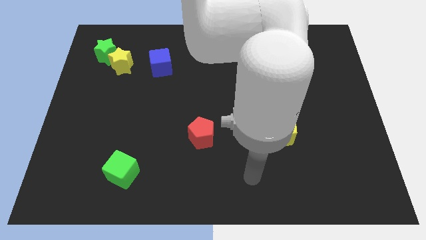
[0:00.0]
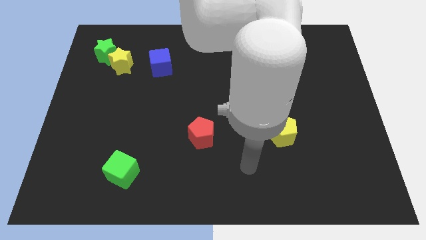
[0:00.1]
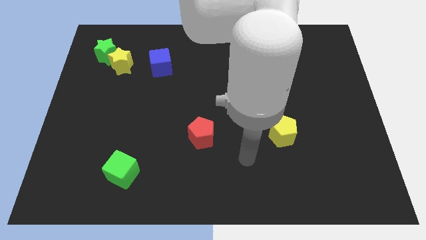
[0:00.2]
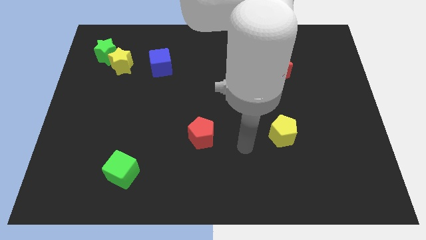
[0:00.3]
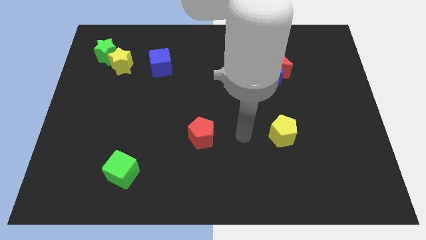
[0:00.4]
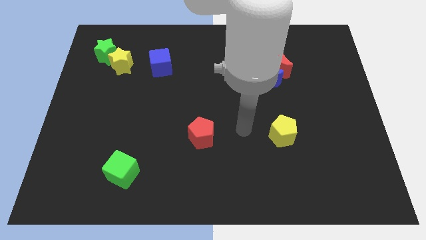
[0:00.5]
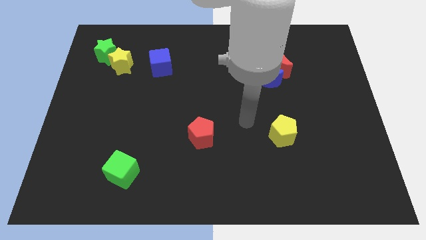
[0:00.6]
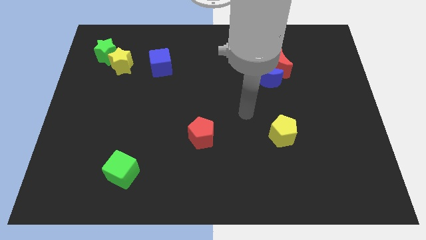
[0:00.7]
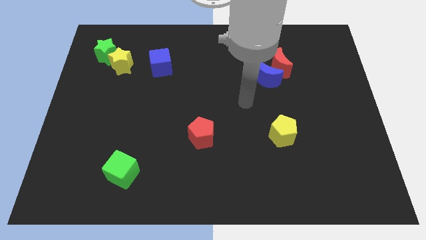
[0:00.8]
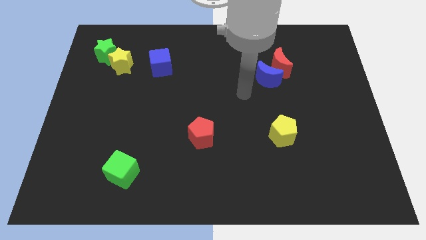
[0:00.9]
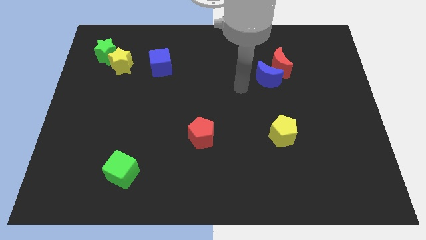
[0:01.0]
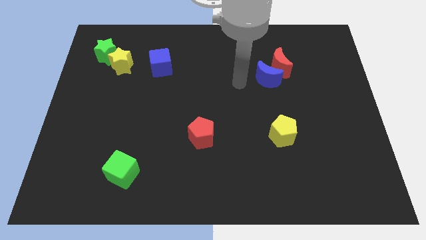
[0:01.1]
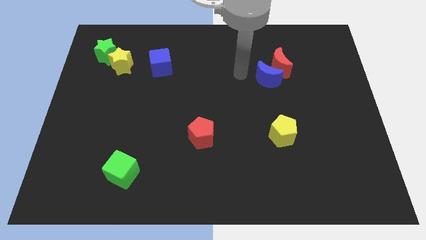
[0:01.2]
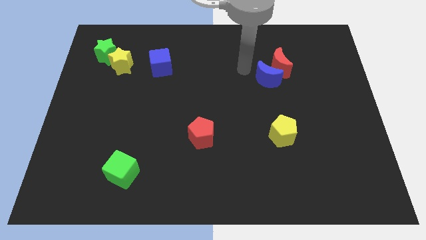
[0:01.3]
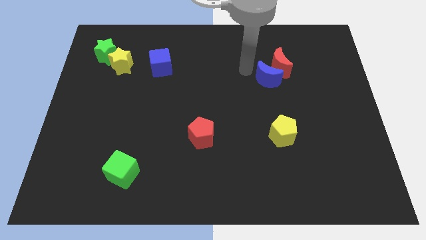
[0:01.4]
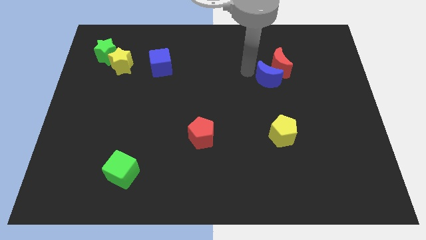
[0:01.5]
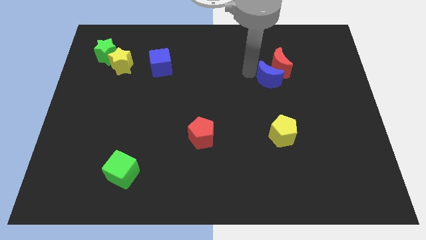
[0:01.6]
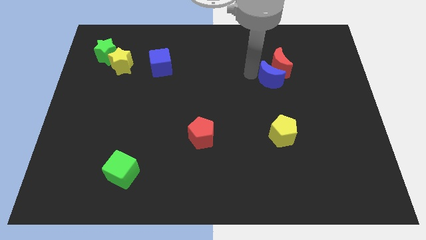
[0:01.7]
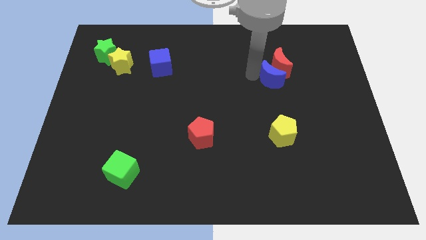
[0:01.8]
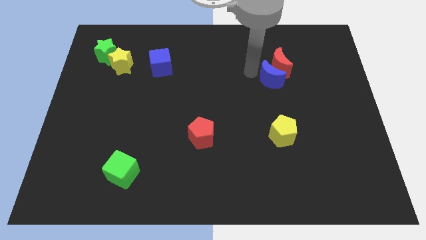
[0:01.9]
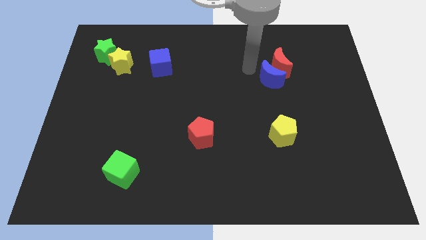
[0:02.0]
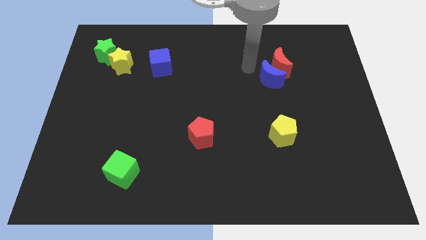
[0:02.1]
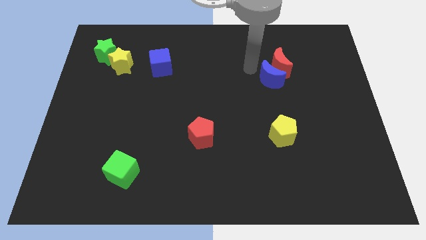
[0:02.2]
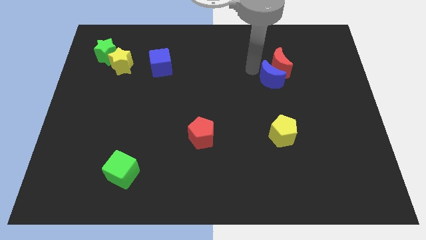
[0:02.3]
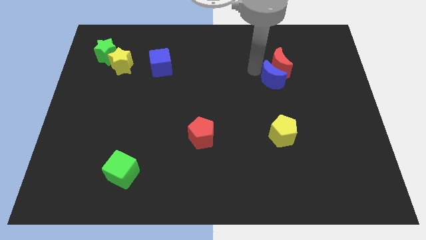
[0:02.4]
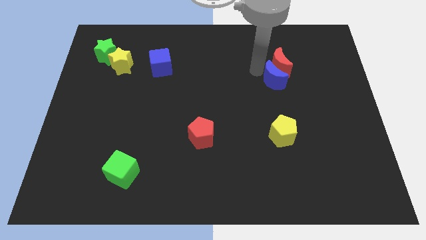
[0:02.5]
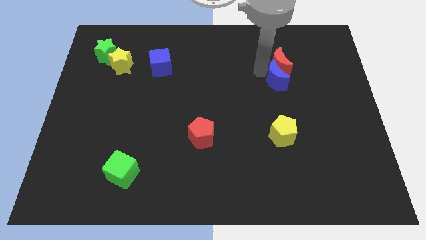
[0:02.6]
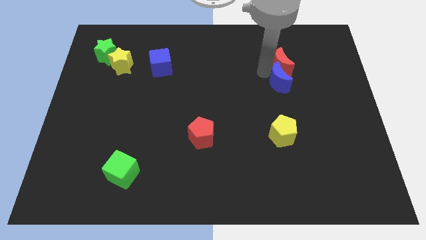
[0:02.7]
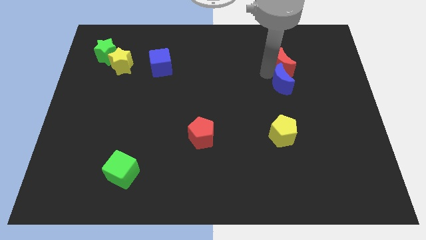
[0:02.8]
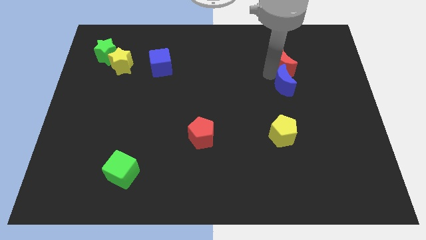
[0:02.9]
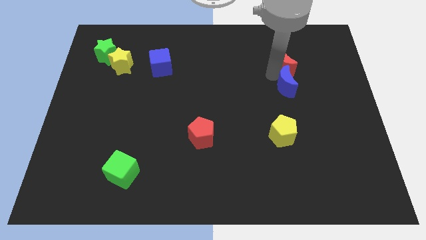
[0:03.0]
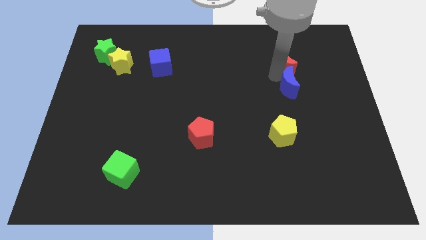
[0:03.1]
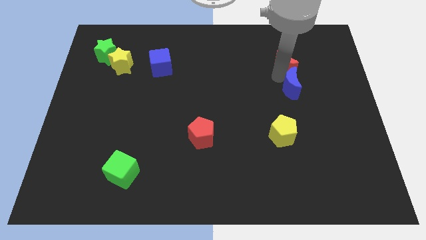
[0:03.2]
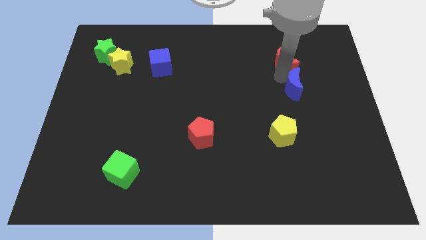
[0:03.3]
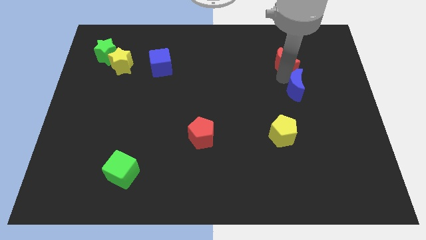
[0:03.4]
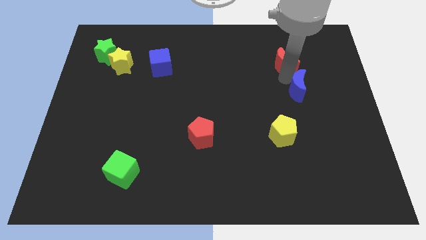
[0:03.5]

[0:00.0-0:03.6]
slide the blue moon somewhat downwards and then to the right

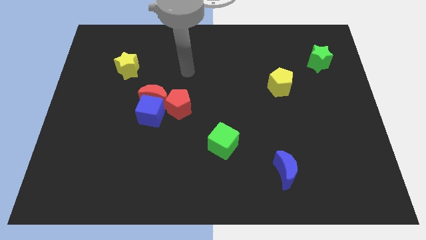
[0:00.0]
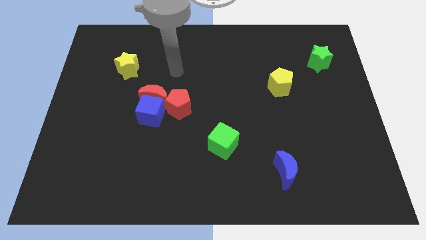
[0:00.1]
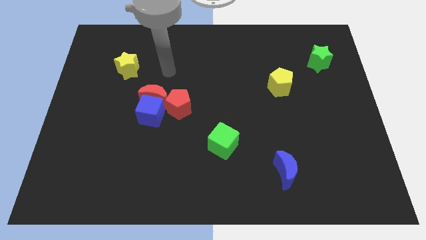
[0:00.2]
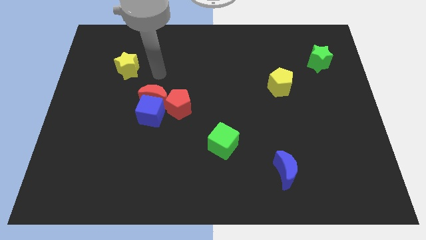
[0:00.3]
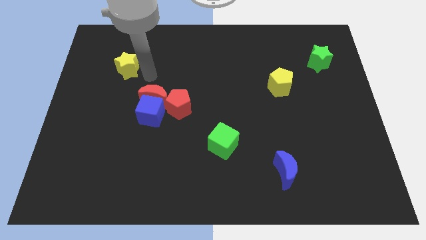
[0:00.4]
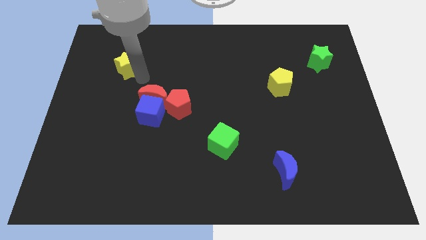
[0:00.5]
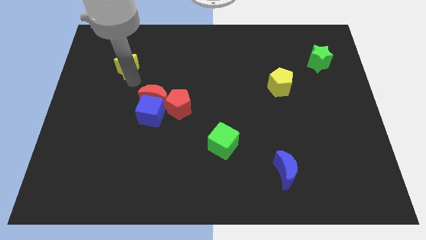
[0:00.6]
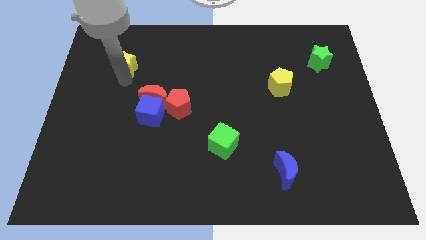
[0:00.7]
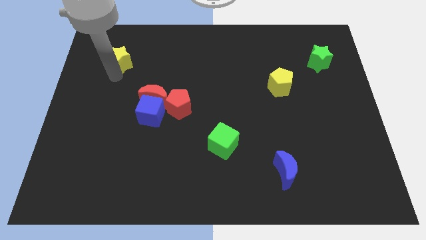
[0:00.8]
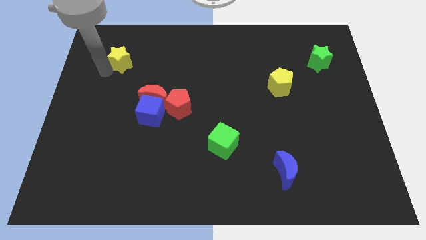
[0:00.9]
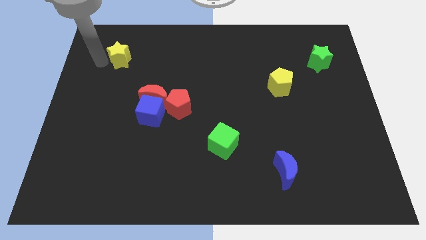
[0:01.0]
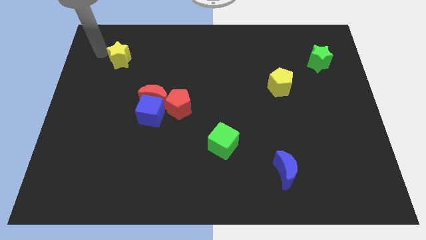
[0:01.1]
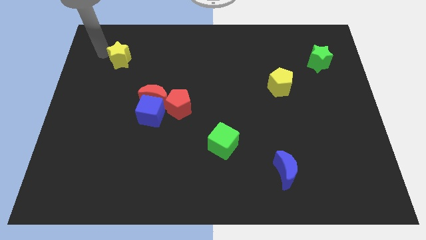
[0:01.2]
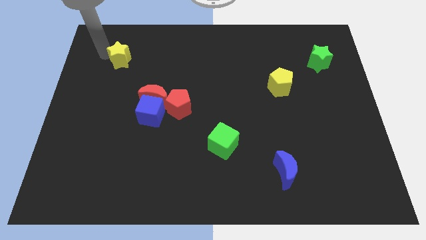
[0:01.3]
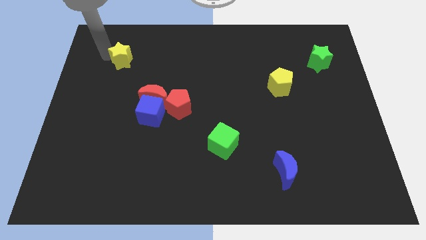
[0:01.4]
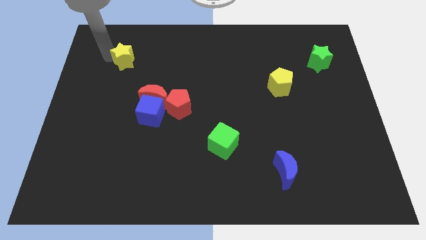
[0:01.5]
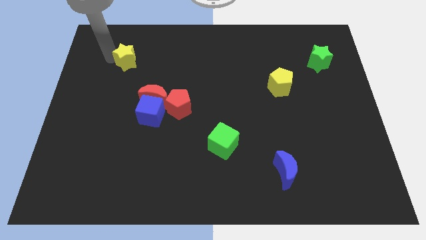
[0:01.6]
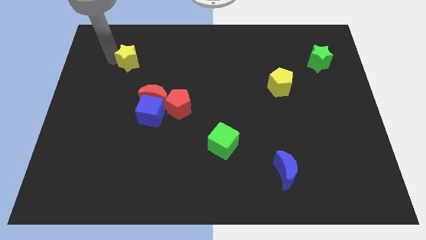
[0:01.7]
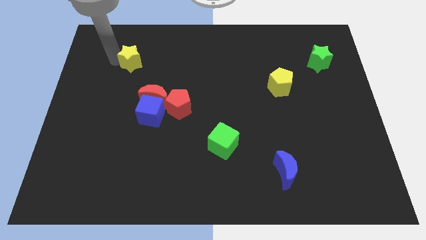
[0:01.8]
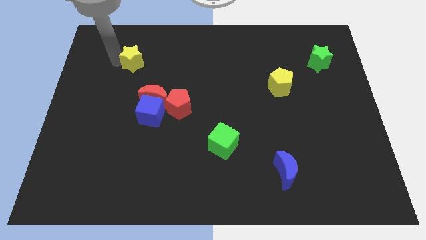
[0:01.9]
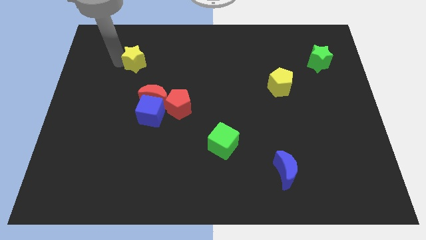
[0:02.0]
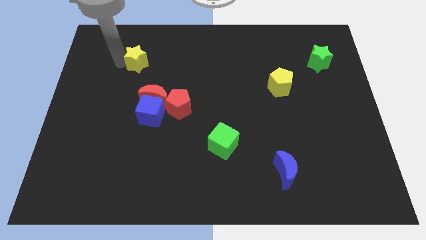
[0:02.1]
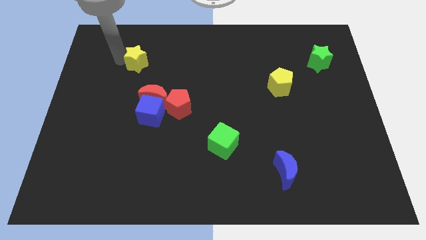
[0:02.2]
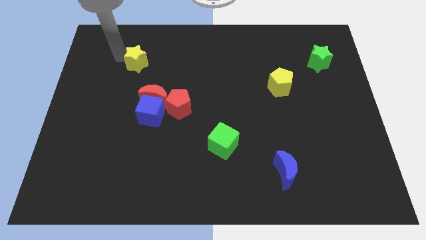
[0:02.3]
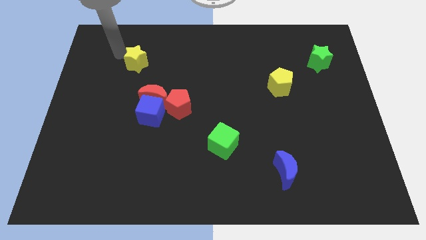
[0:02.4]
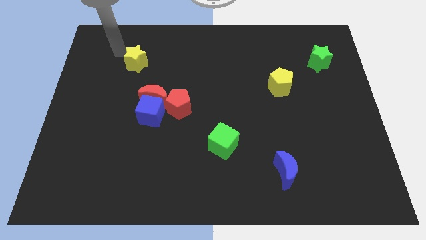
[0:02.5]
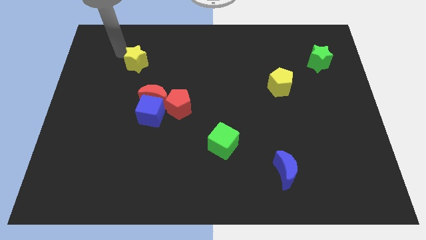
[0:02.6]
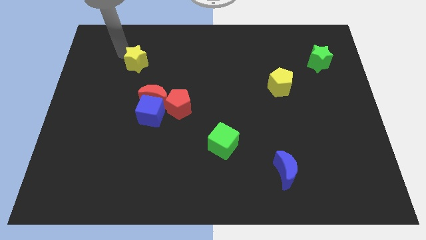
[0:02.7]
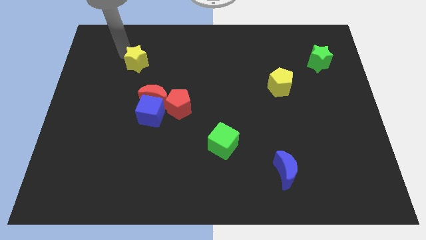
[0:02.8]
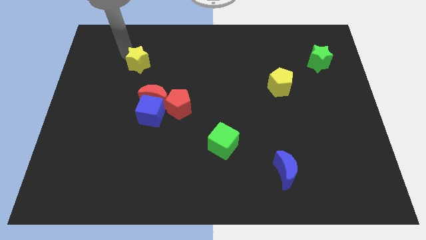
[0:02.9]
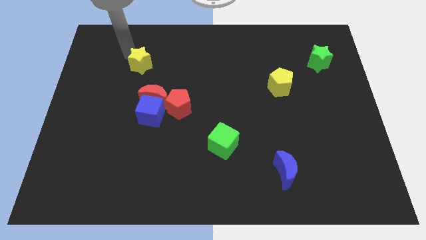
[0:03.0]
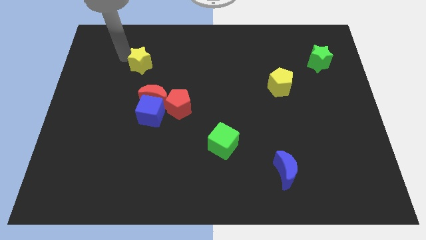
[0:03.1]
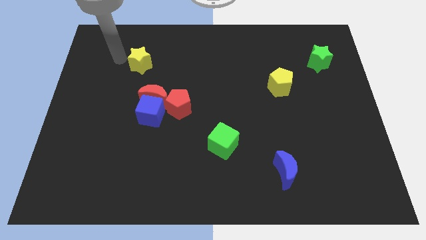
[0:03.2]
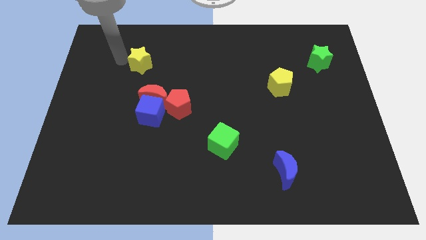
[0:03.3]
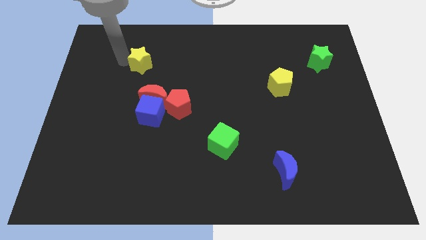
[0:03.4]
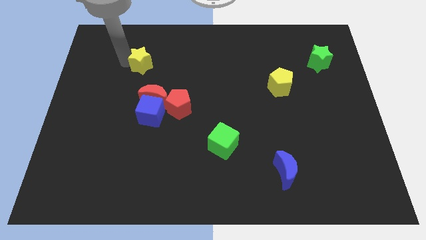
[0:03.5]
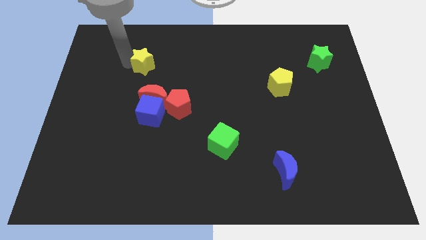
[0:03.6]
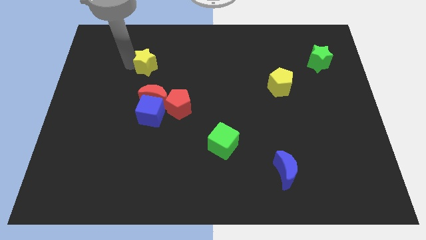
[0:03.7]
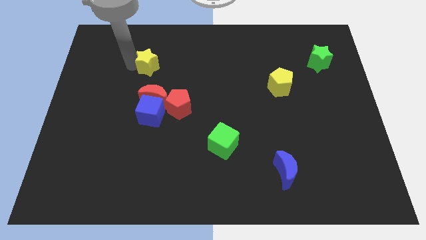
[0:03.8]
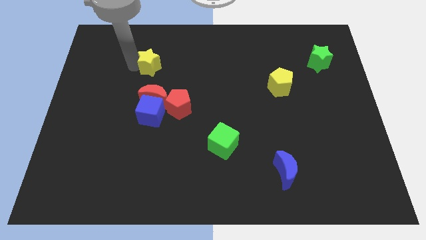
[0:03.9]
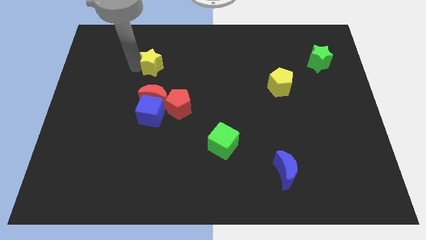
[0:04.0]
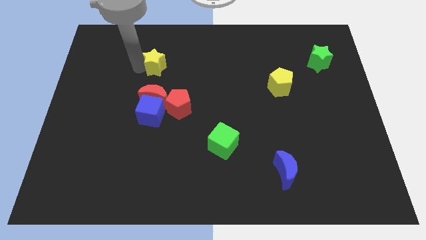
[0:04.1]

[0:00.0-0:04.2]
slightly push the yellow star to the right

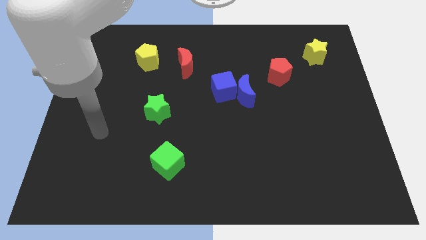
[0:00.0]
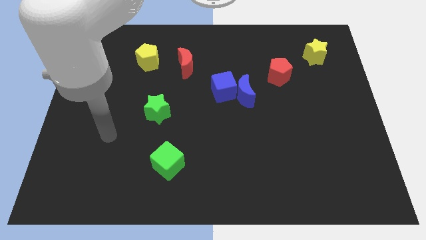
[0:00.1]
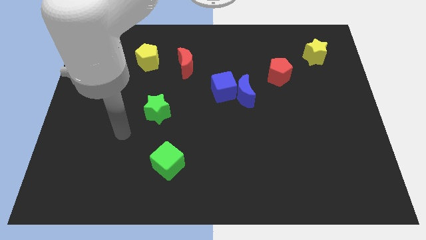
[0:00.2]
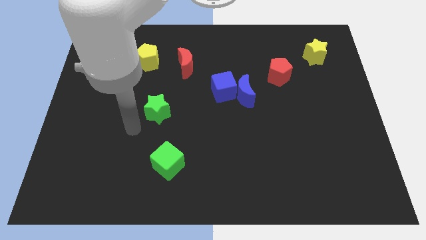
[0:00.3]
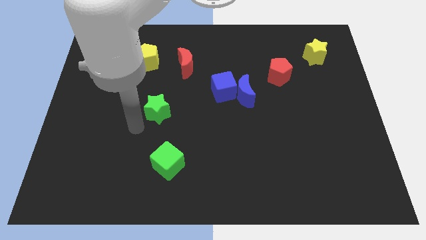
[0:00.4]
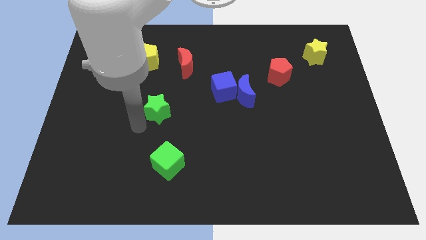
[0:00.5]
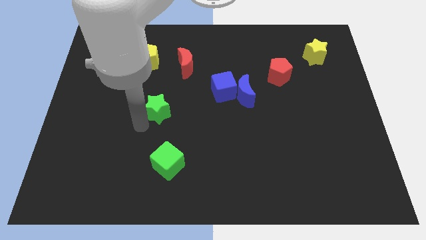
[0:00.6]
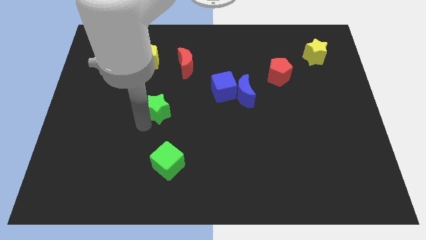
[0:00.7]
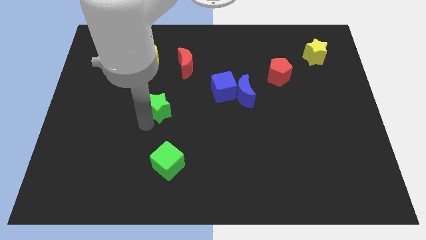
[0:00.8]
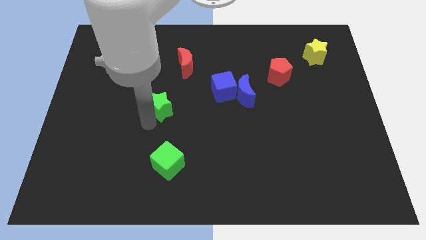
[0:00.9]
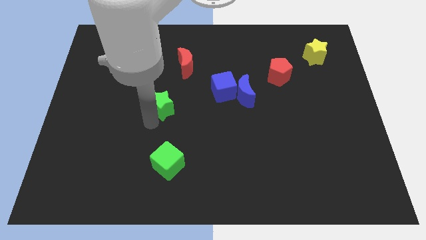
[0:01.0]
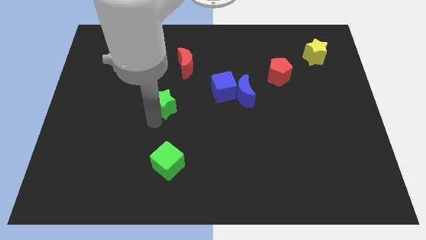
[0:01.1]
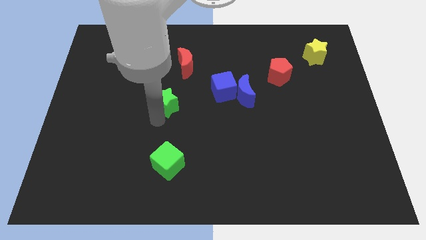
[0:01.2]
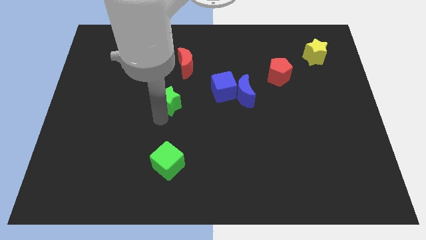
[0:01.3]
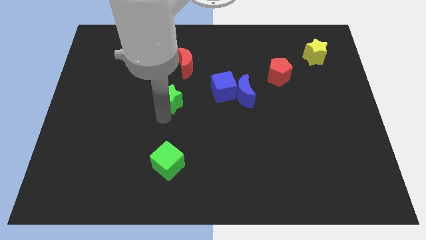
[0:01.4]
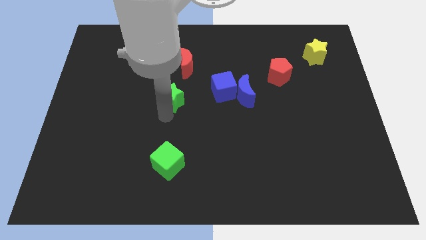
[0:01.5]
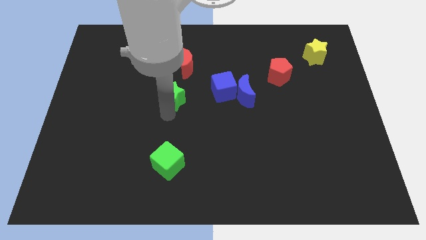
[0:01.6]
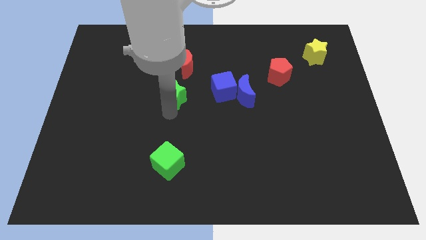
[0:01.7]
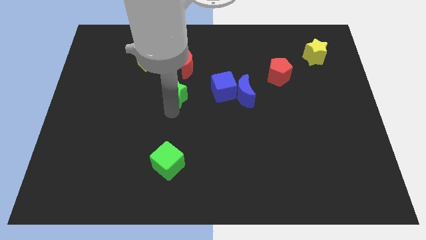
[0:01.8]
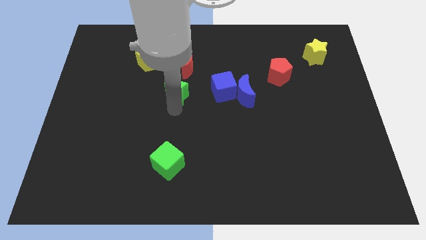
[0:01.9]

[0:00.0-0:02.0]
move the green star up and right diagonally somewhat
